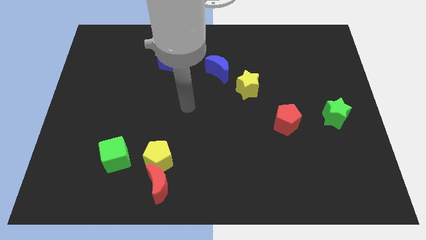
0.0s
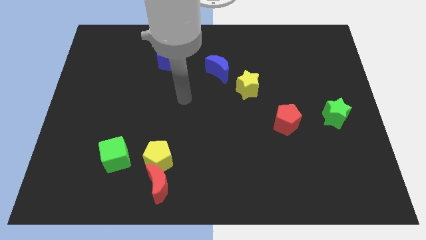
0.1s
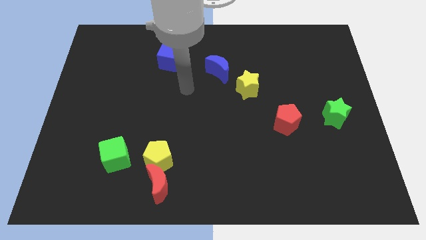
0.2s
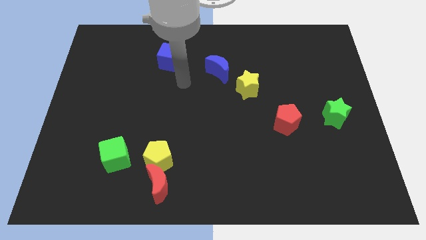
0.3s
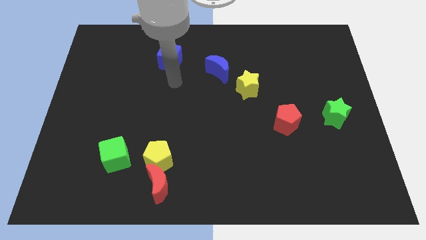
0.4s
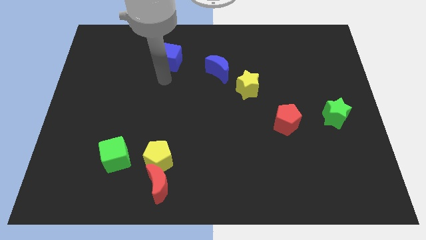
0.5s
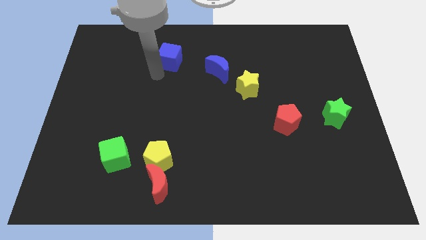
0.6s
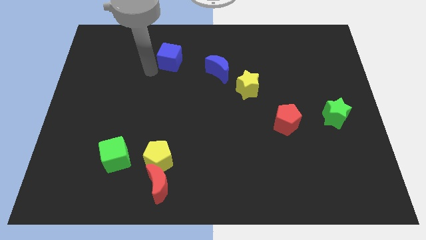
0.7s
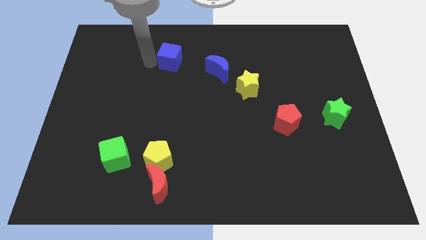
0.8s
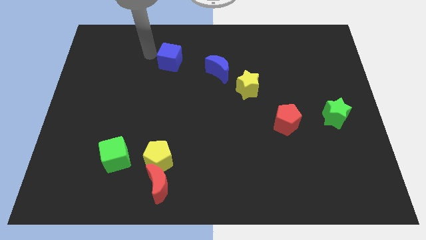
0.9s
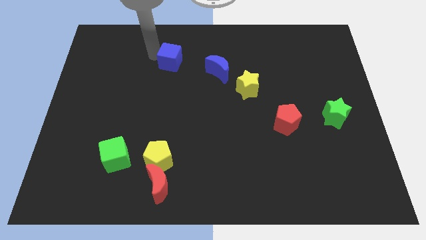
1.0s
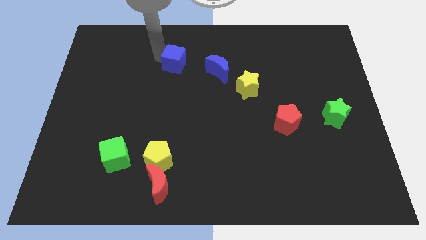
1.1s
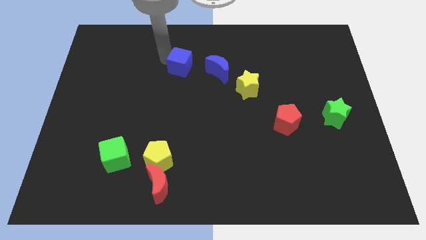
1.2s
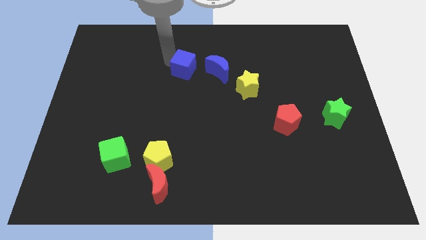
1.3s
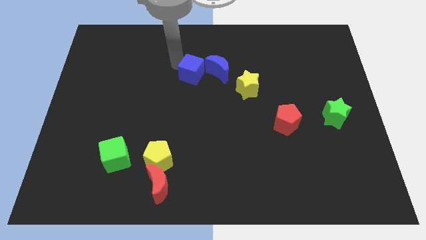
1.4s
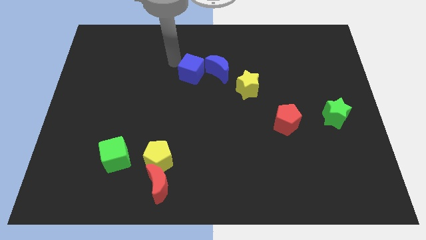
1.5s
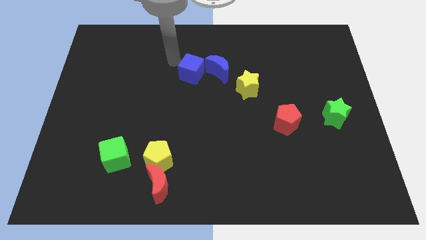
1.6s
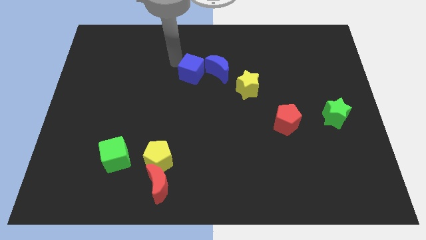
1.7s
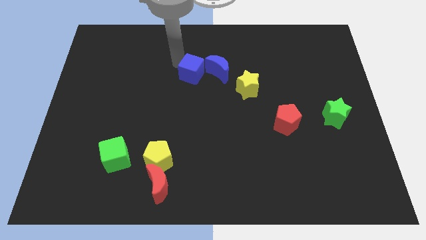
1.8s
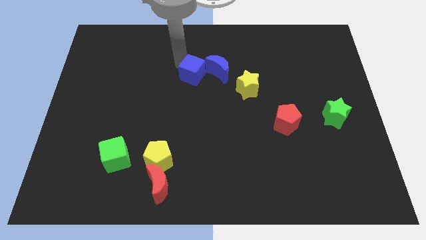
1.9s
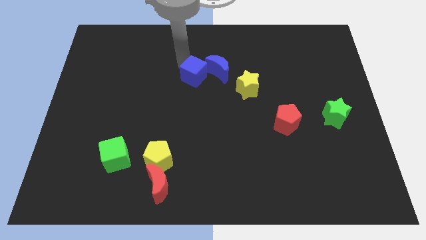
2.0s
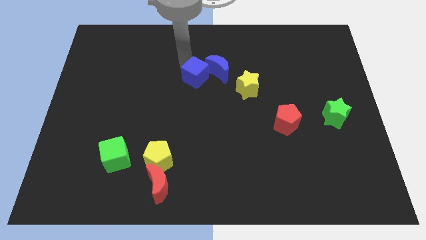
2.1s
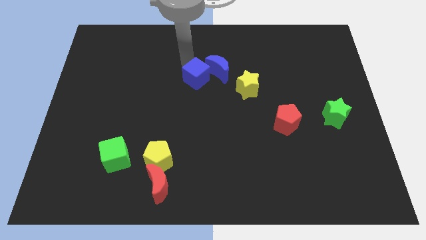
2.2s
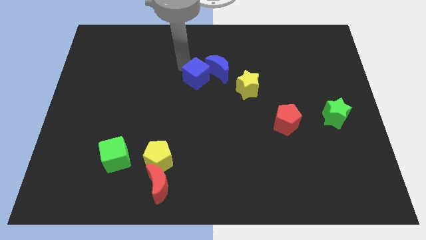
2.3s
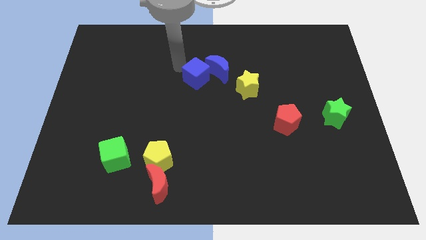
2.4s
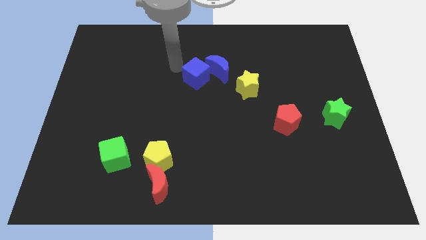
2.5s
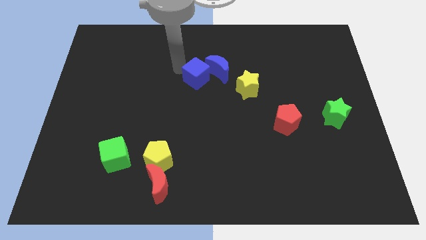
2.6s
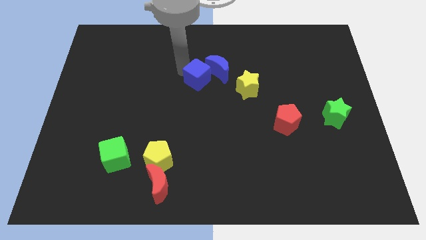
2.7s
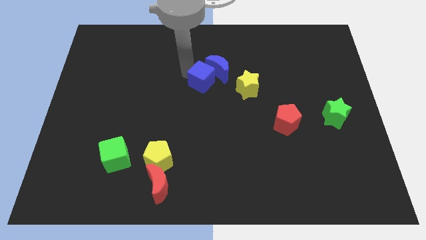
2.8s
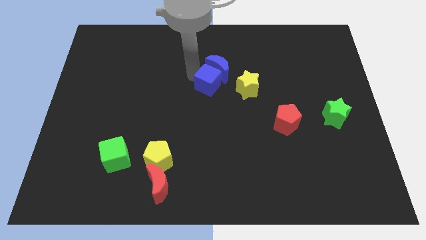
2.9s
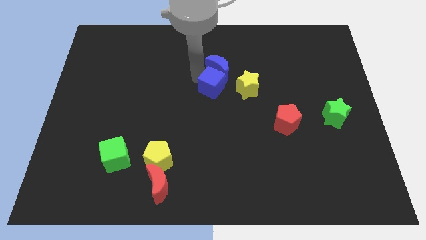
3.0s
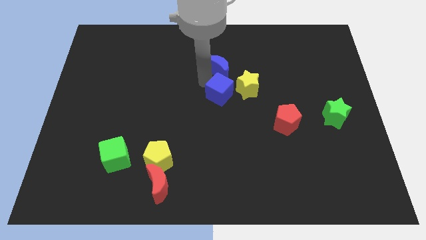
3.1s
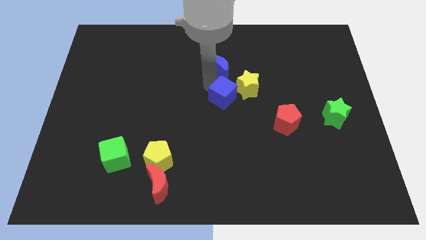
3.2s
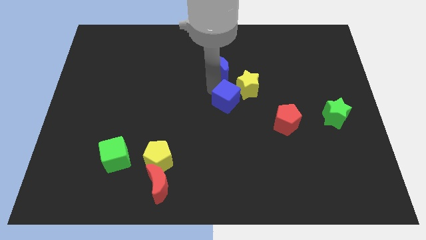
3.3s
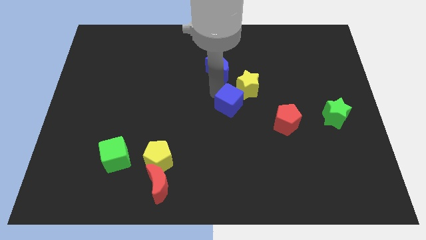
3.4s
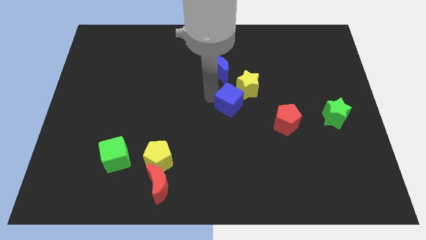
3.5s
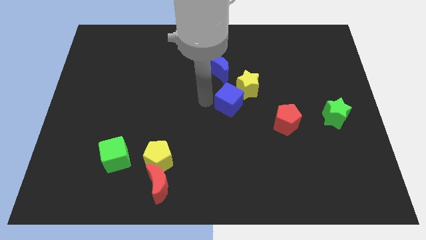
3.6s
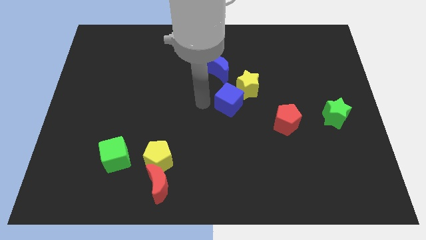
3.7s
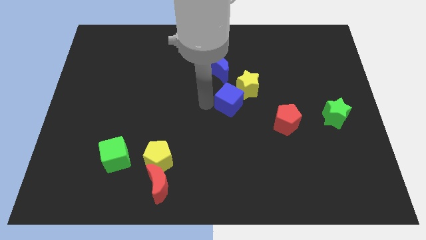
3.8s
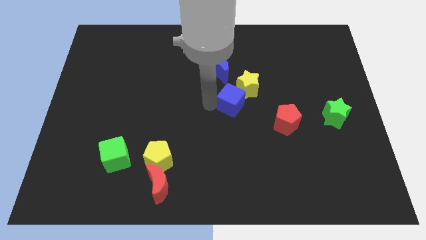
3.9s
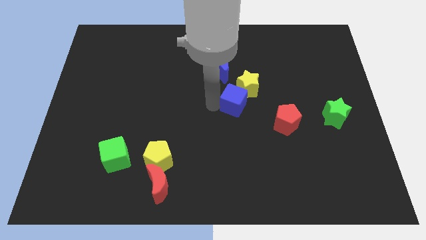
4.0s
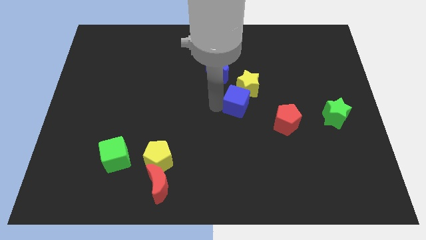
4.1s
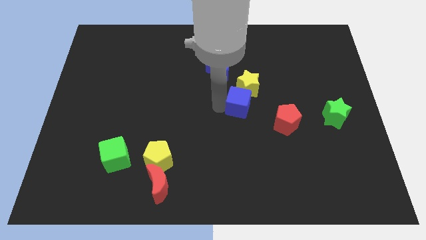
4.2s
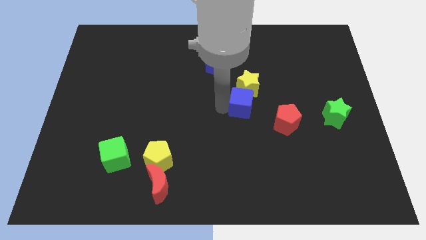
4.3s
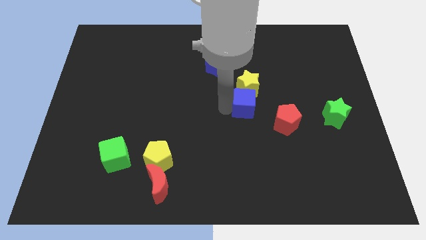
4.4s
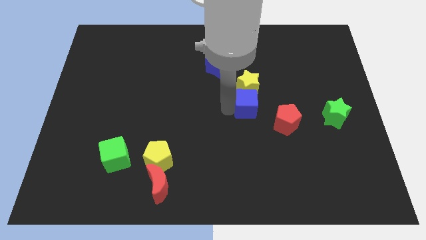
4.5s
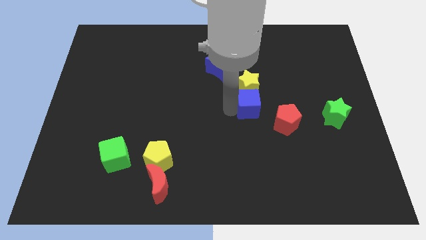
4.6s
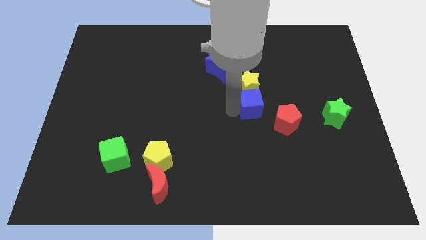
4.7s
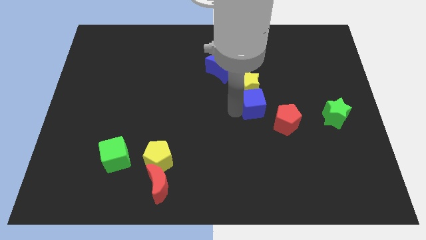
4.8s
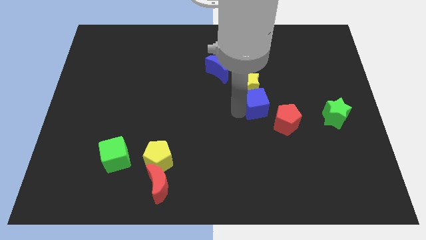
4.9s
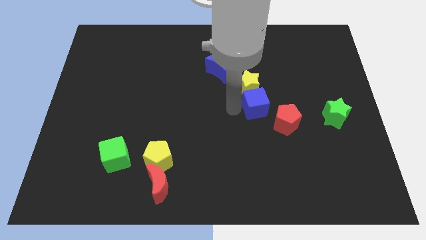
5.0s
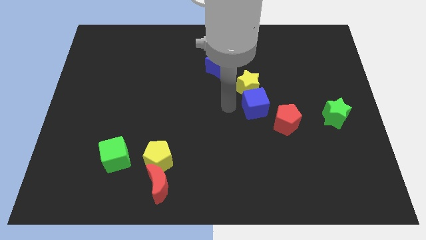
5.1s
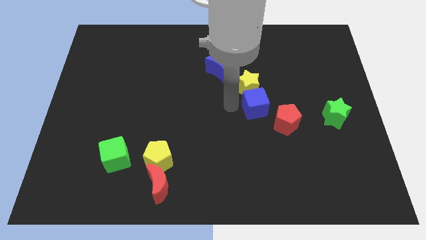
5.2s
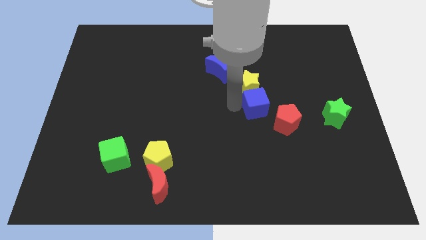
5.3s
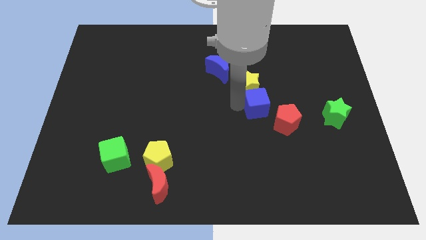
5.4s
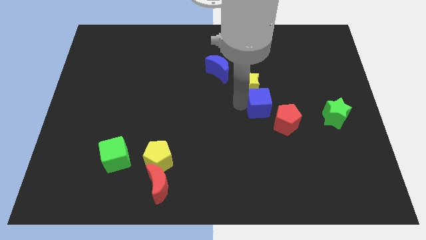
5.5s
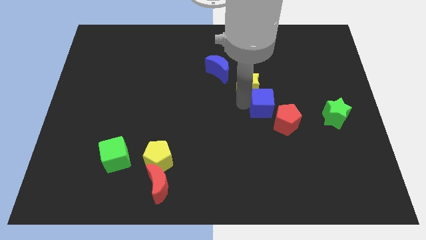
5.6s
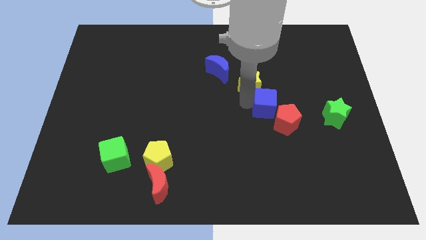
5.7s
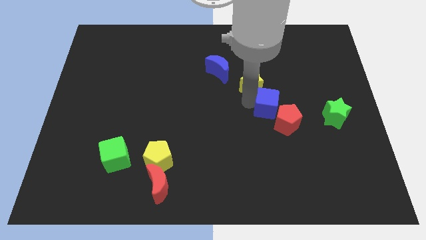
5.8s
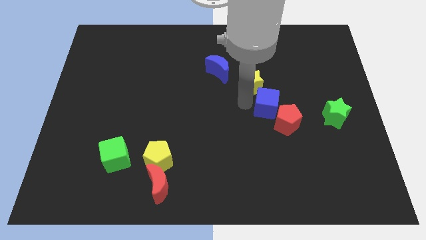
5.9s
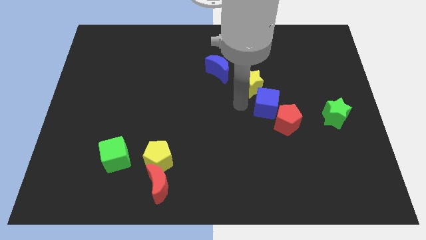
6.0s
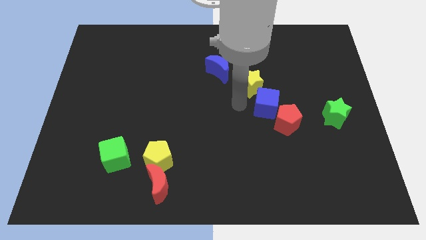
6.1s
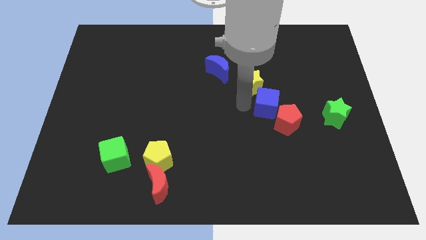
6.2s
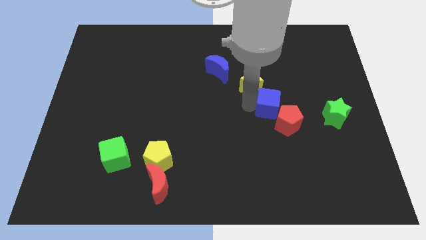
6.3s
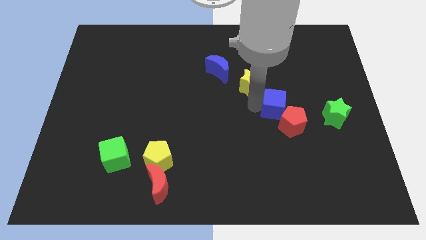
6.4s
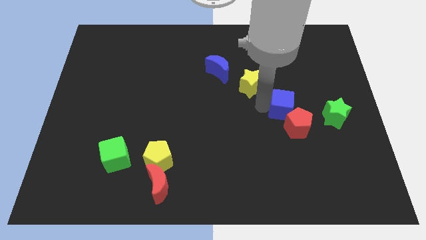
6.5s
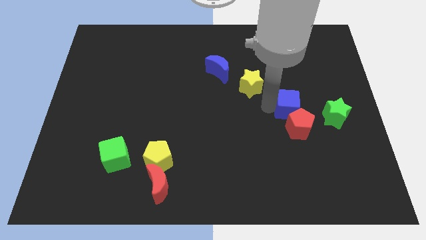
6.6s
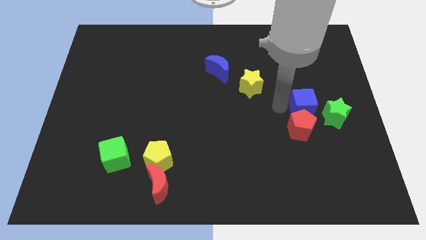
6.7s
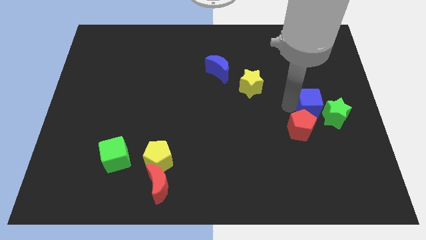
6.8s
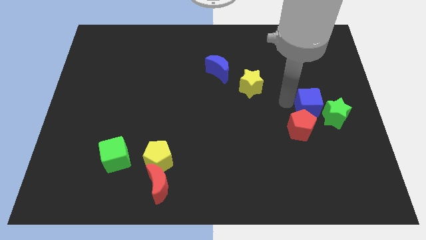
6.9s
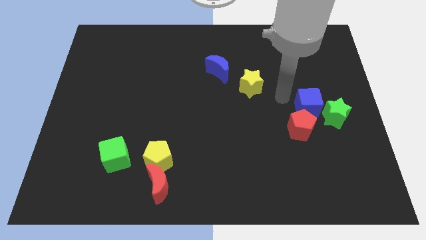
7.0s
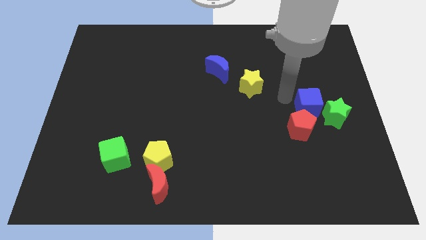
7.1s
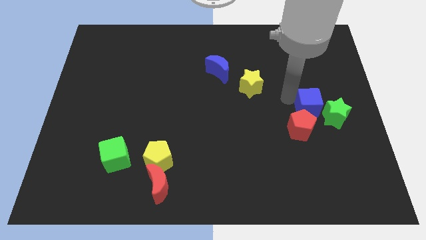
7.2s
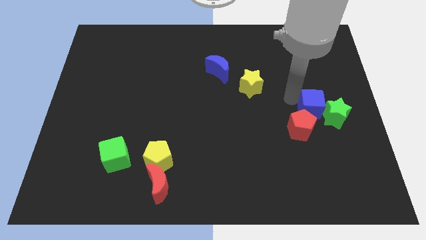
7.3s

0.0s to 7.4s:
put the blue cube towards the green star
